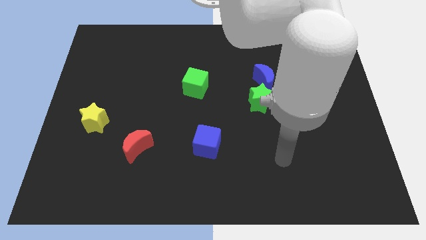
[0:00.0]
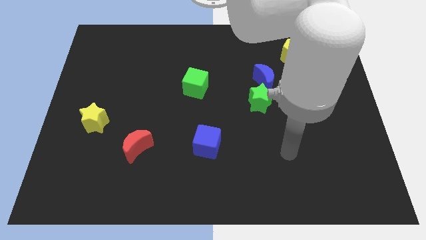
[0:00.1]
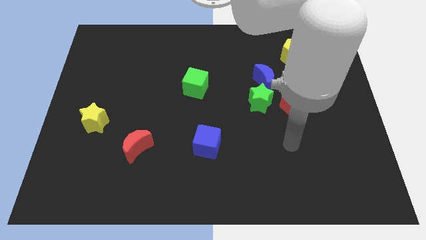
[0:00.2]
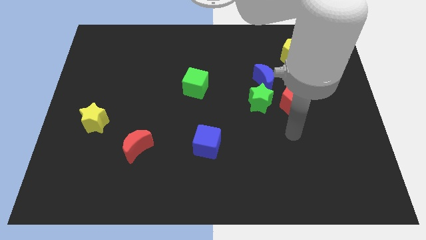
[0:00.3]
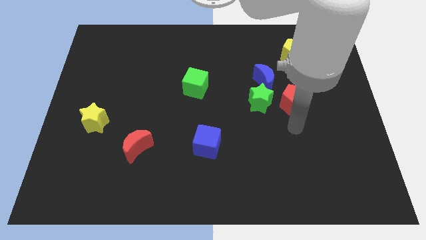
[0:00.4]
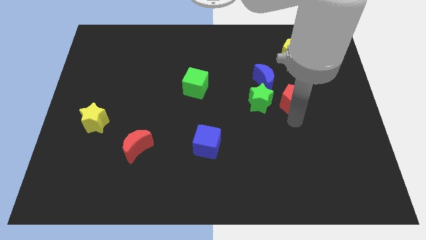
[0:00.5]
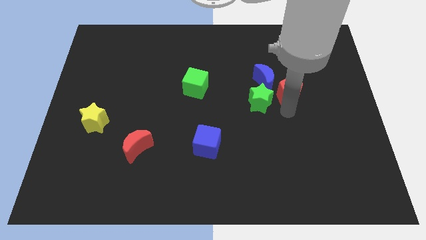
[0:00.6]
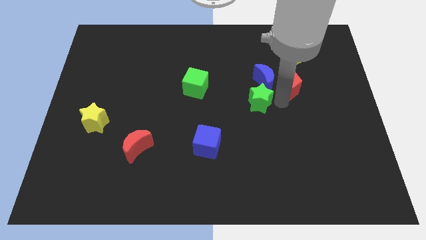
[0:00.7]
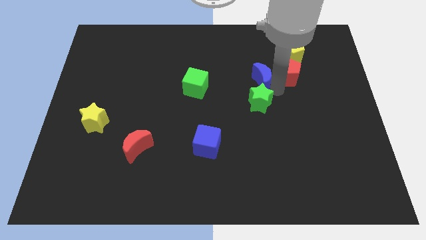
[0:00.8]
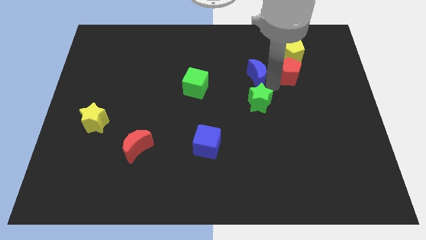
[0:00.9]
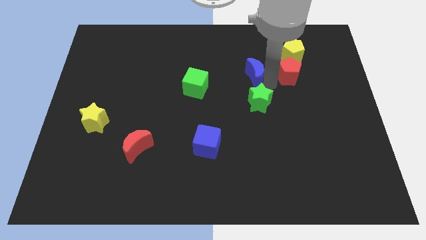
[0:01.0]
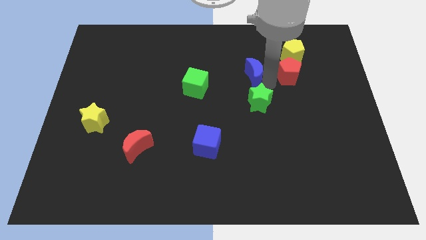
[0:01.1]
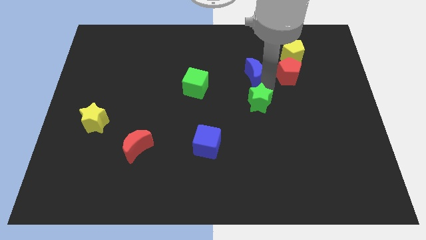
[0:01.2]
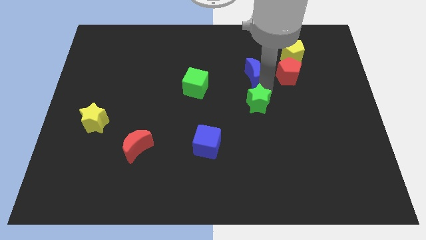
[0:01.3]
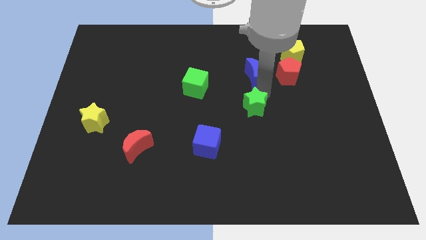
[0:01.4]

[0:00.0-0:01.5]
separate the green star from the blue moon and red pentagon

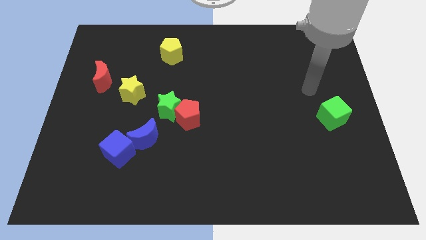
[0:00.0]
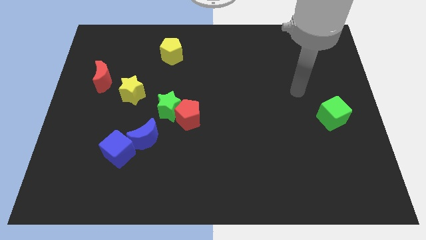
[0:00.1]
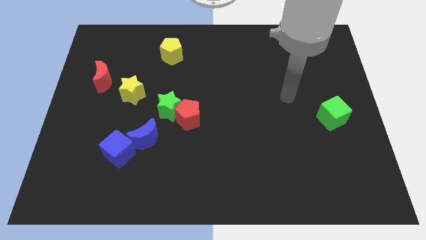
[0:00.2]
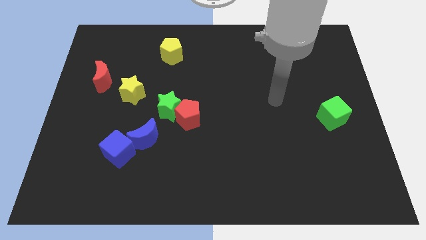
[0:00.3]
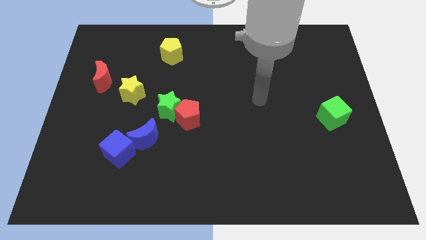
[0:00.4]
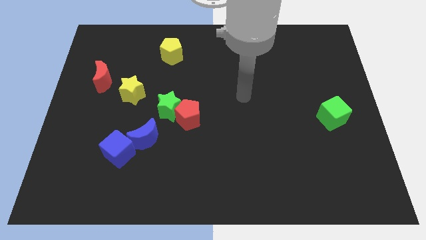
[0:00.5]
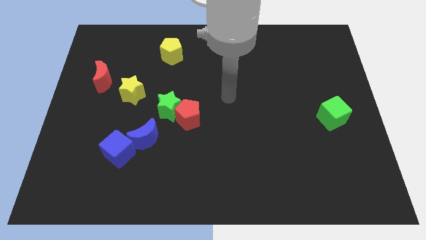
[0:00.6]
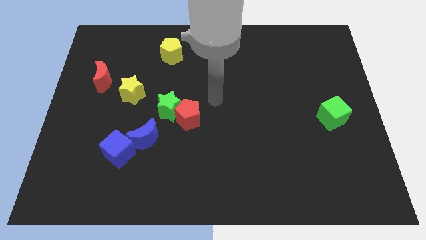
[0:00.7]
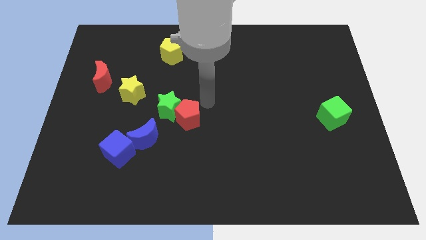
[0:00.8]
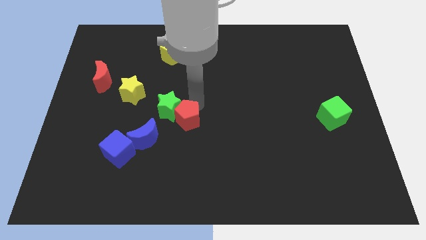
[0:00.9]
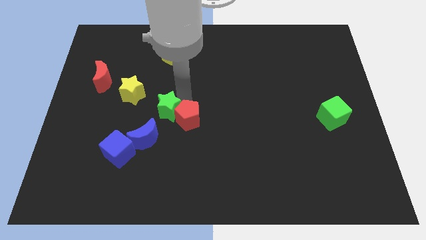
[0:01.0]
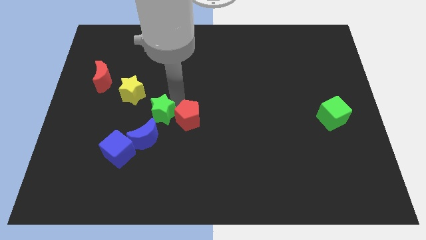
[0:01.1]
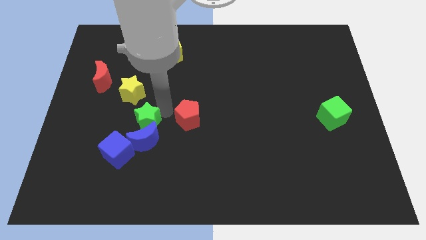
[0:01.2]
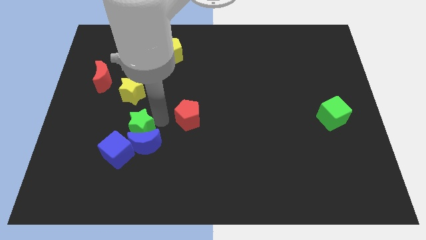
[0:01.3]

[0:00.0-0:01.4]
pull the red pentagon apart from the green star

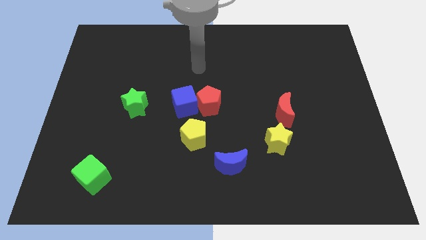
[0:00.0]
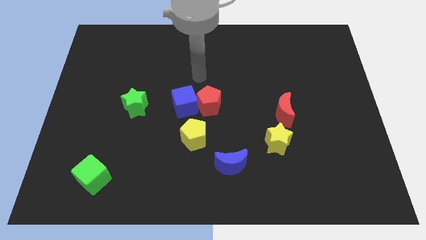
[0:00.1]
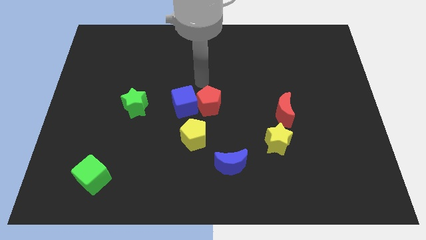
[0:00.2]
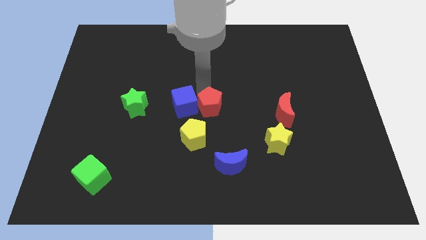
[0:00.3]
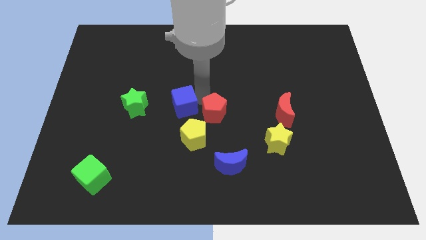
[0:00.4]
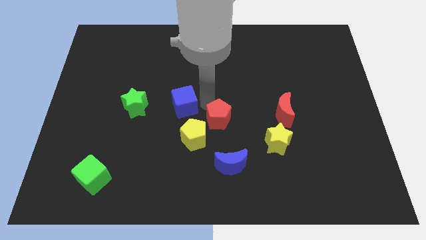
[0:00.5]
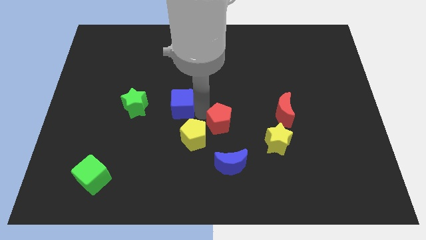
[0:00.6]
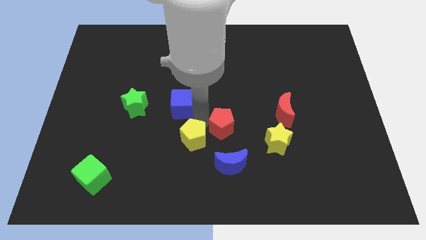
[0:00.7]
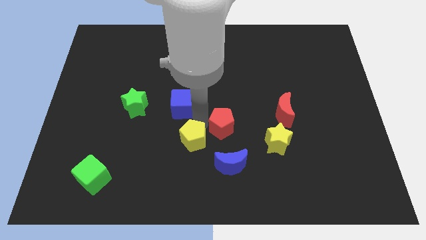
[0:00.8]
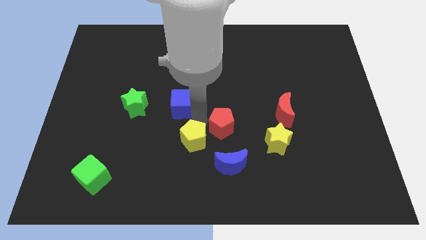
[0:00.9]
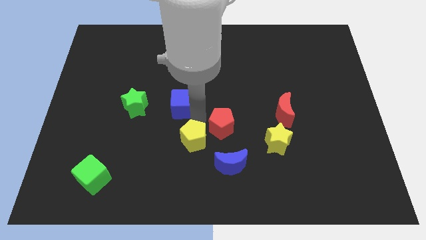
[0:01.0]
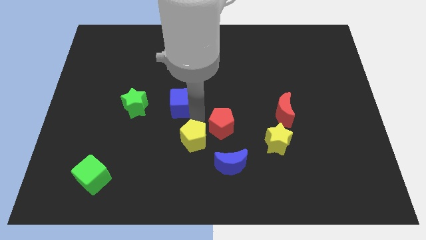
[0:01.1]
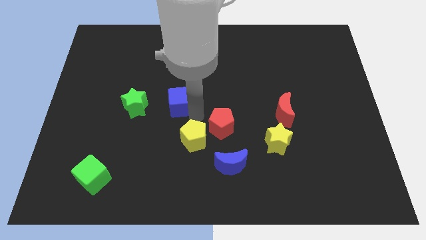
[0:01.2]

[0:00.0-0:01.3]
move the blue cube away from the red pentagon and yellow pentagon

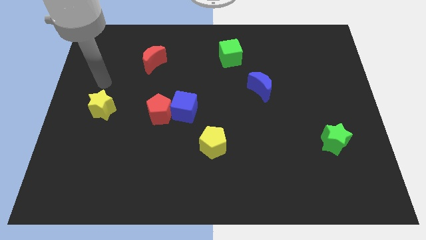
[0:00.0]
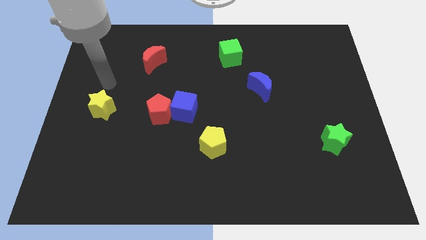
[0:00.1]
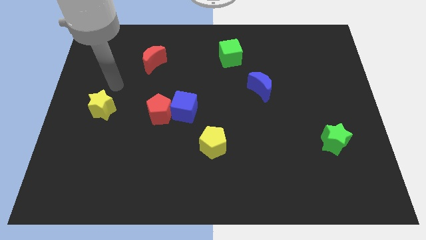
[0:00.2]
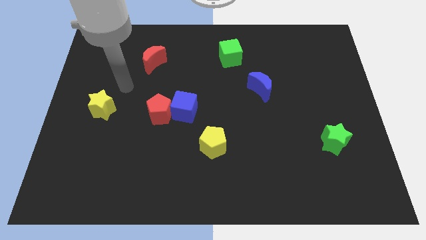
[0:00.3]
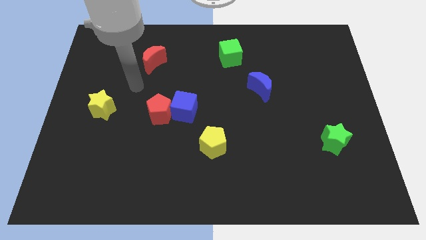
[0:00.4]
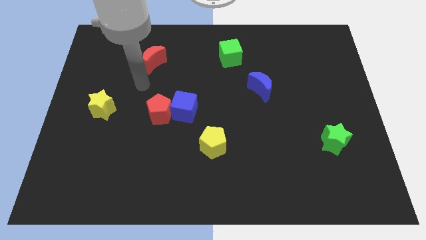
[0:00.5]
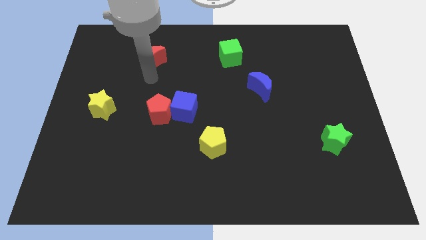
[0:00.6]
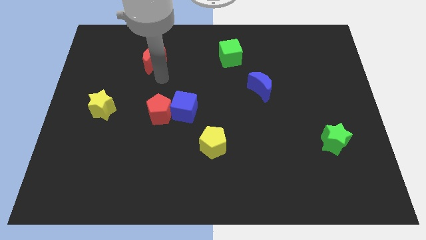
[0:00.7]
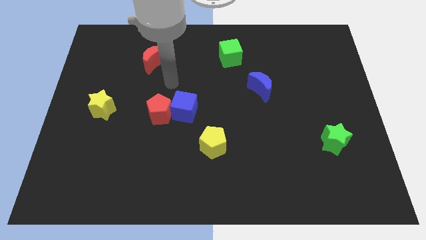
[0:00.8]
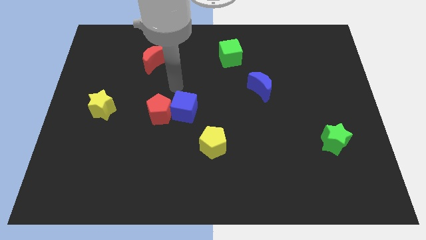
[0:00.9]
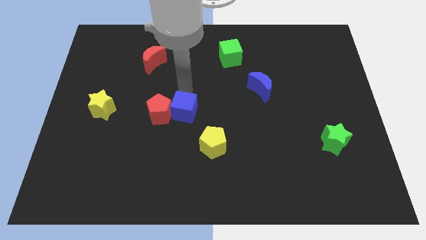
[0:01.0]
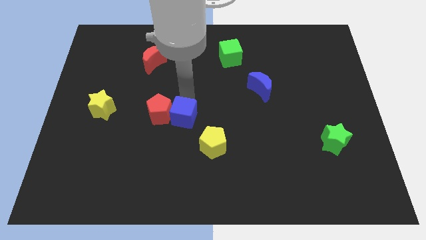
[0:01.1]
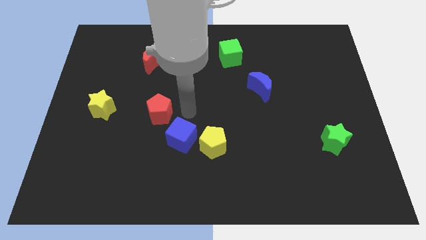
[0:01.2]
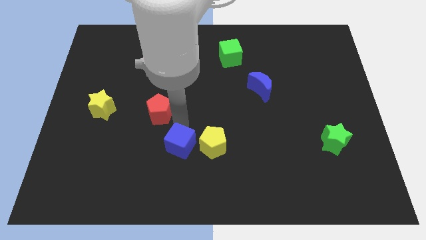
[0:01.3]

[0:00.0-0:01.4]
pull the red pentagon apart from the blue cube

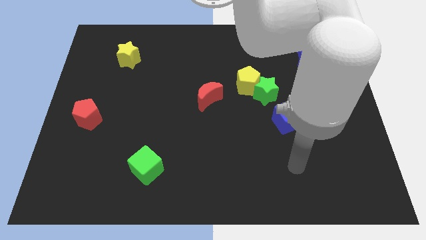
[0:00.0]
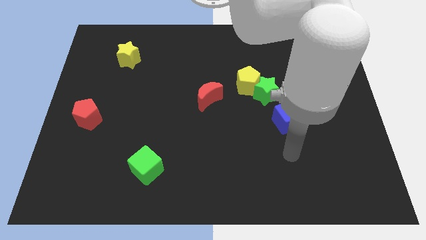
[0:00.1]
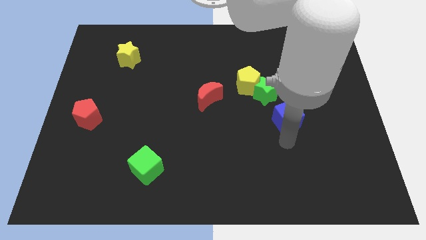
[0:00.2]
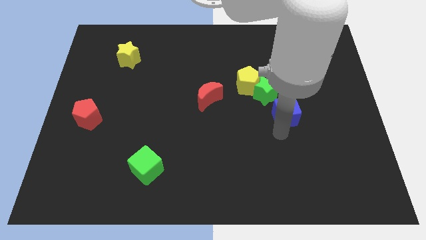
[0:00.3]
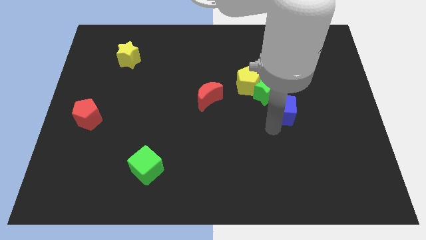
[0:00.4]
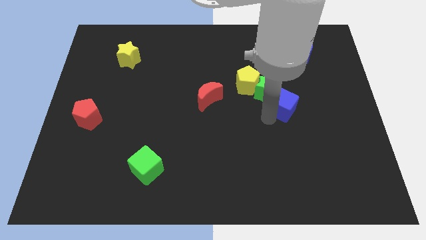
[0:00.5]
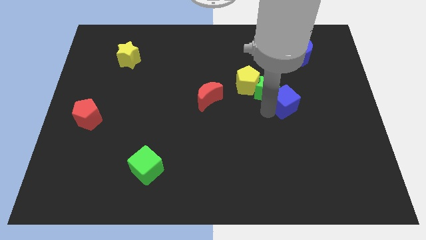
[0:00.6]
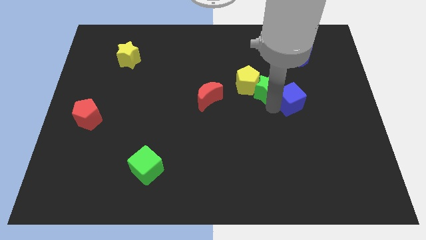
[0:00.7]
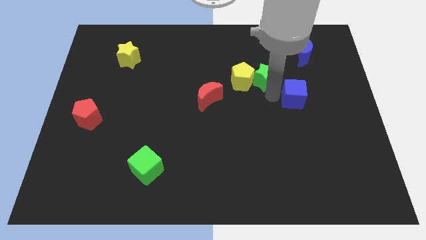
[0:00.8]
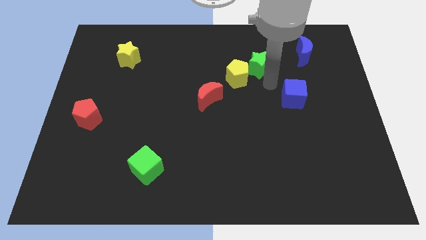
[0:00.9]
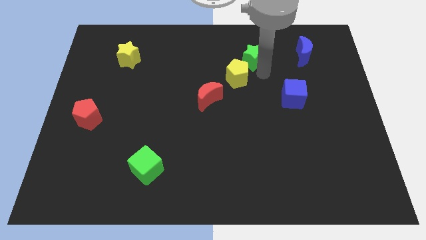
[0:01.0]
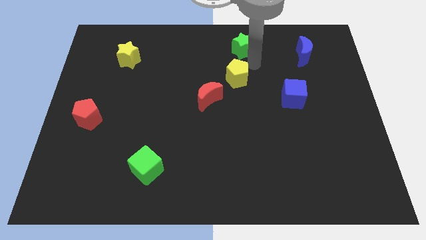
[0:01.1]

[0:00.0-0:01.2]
move the yellow pentagon away from the green star

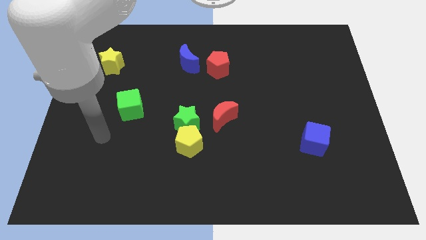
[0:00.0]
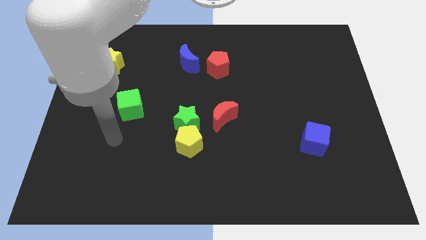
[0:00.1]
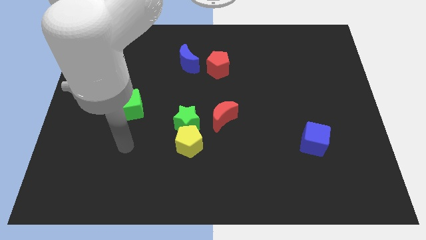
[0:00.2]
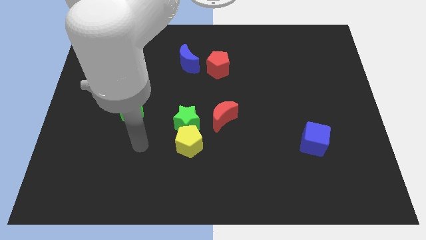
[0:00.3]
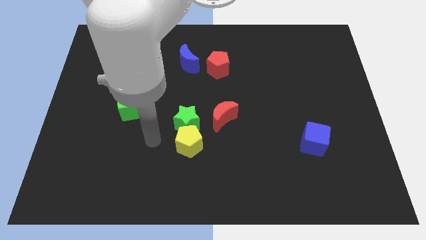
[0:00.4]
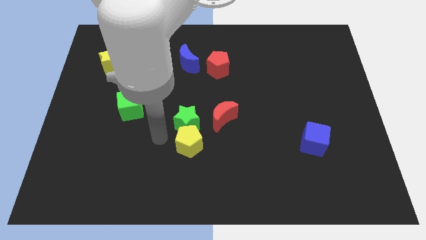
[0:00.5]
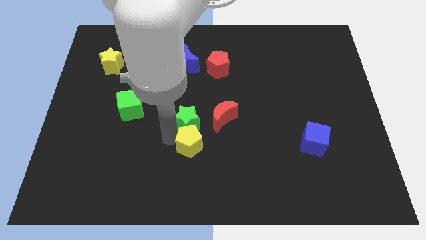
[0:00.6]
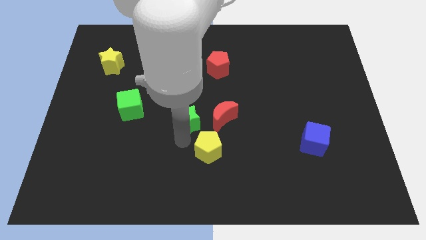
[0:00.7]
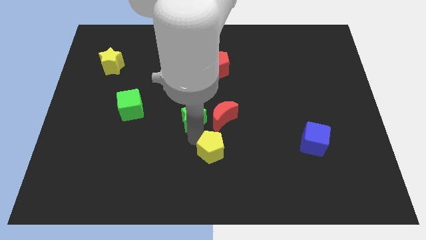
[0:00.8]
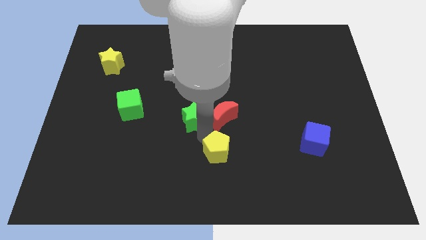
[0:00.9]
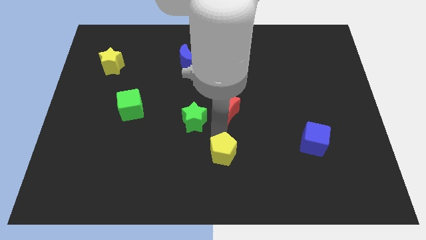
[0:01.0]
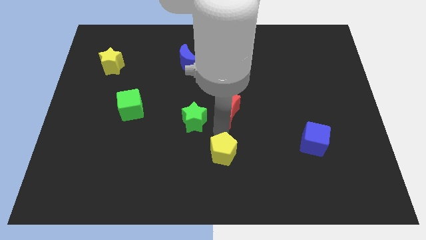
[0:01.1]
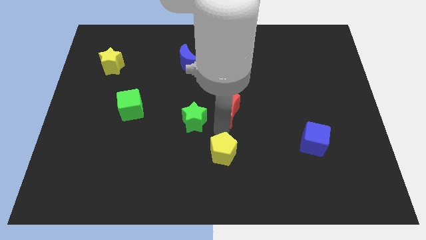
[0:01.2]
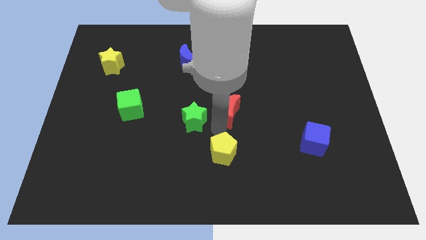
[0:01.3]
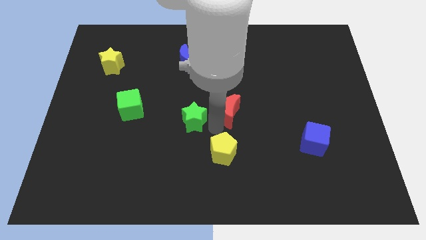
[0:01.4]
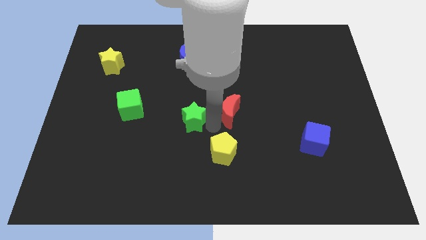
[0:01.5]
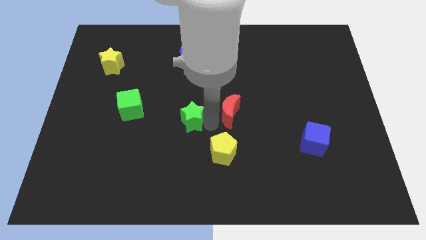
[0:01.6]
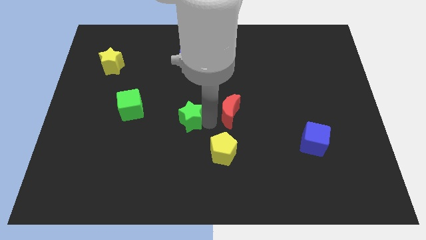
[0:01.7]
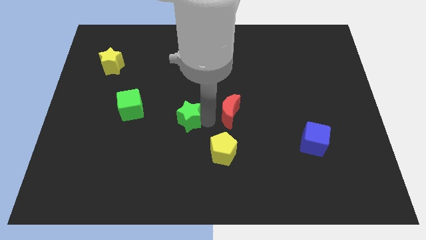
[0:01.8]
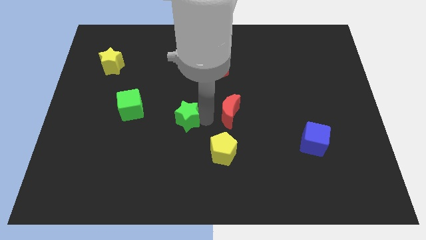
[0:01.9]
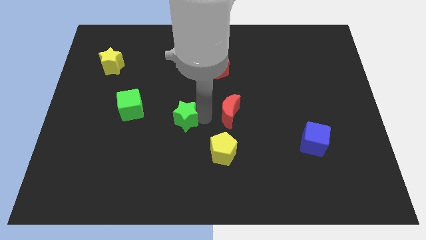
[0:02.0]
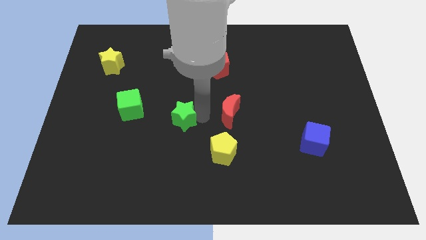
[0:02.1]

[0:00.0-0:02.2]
move the green star away from the yellow pentagon and red moon

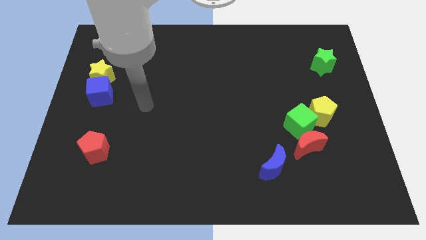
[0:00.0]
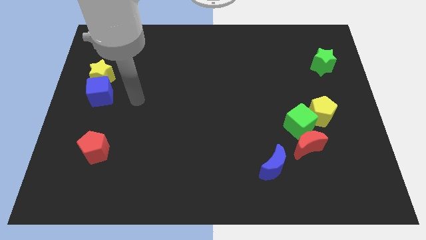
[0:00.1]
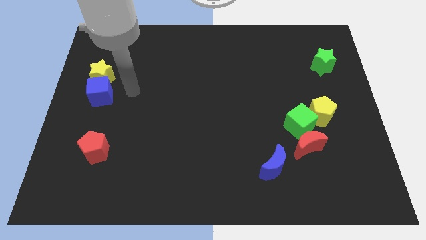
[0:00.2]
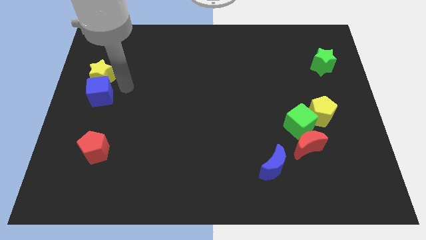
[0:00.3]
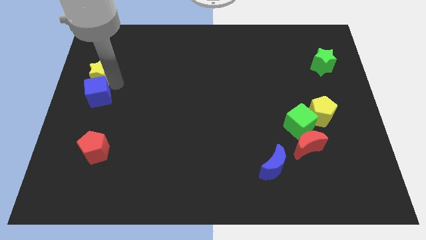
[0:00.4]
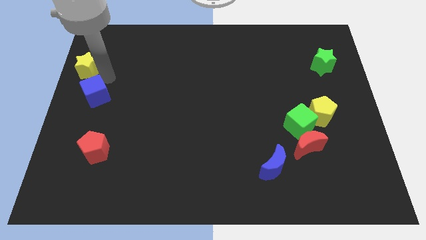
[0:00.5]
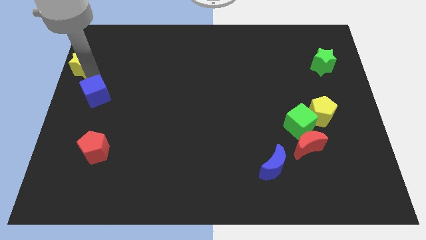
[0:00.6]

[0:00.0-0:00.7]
move the blue cube away from the yellow star
